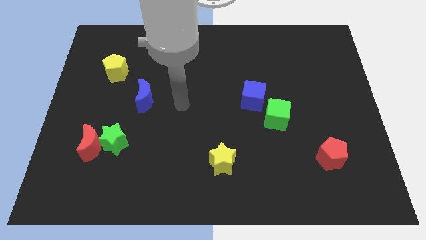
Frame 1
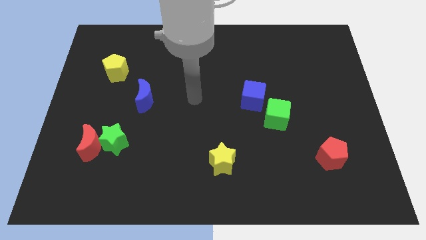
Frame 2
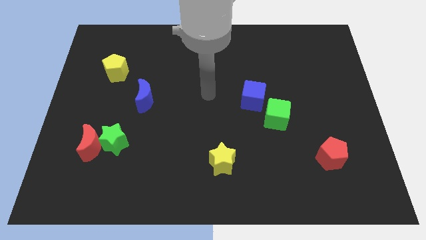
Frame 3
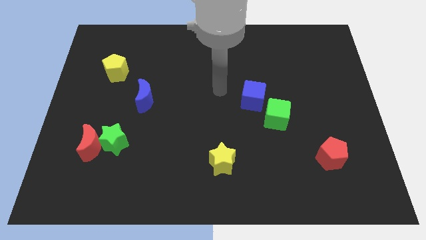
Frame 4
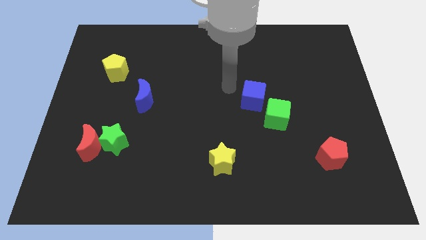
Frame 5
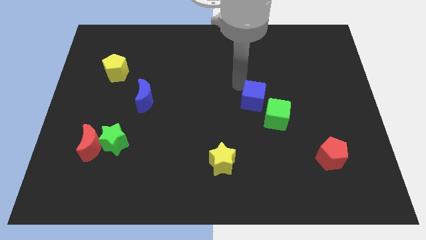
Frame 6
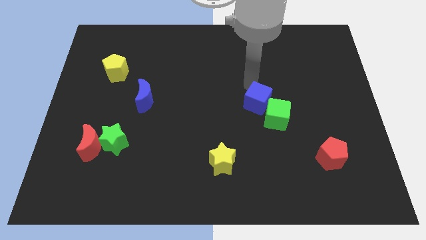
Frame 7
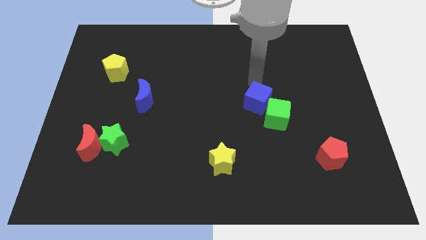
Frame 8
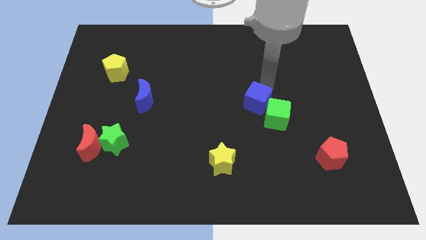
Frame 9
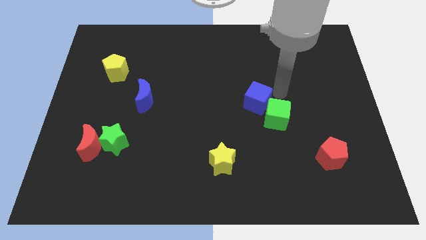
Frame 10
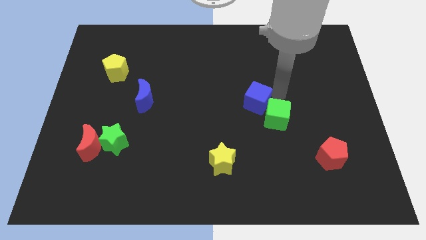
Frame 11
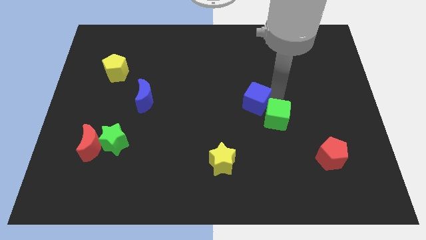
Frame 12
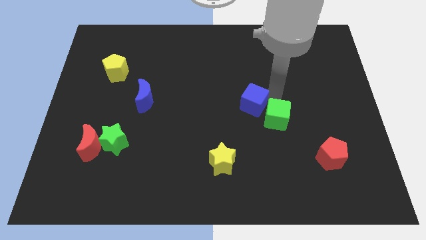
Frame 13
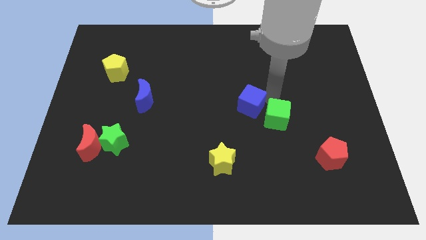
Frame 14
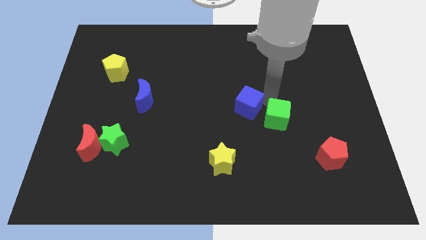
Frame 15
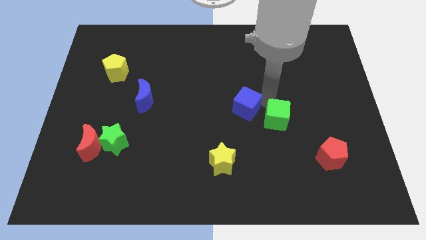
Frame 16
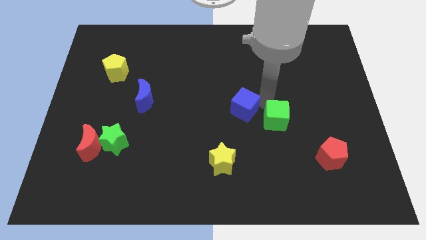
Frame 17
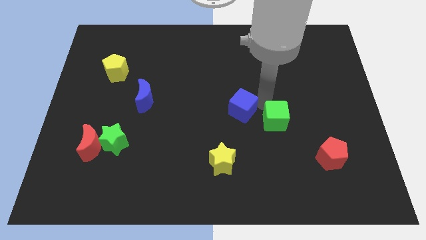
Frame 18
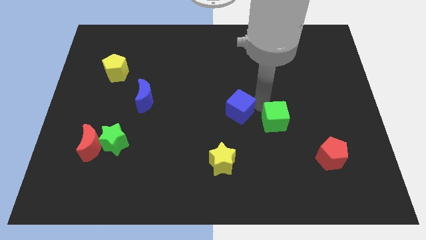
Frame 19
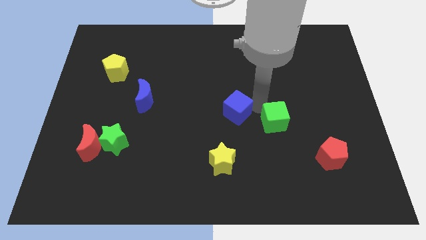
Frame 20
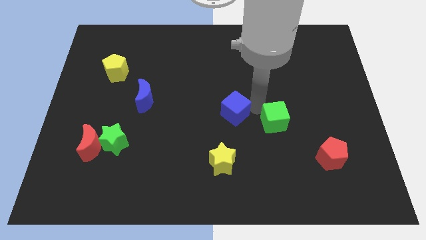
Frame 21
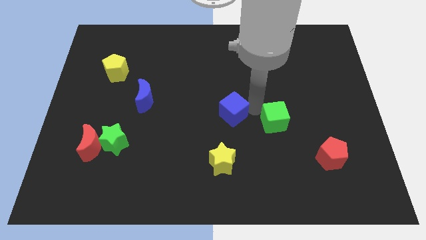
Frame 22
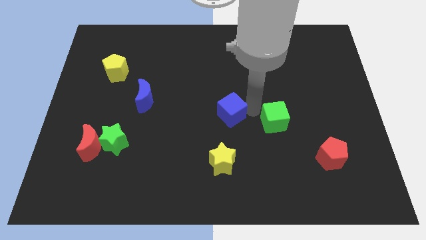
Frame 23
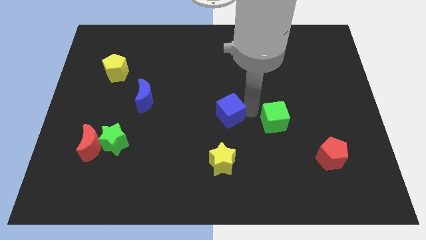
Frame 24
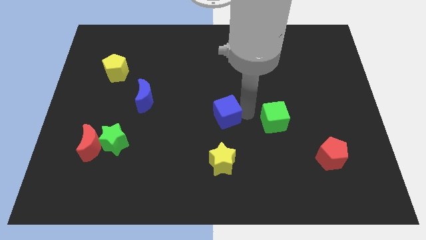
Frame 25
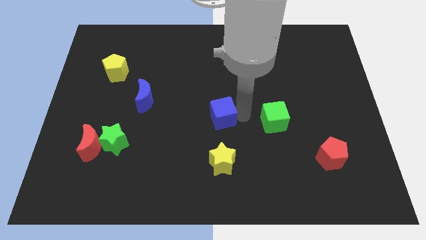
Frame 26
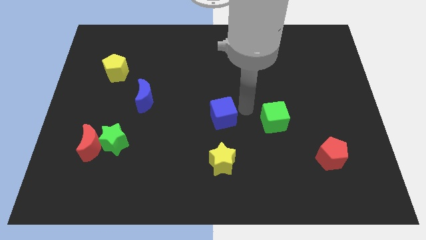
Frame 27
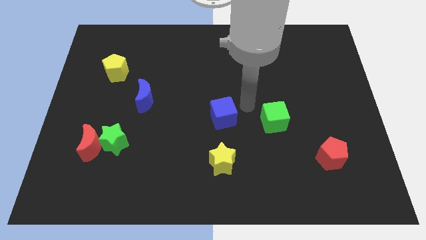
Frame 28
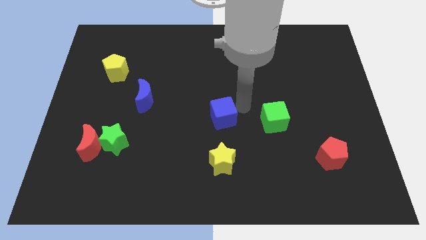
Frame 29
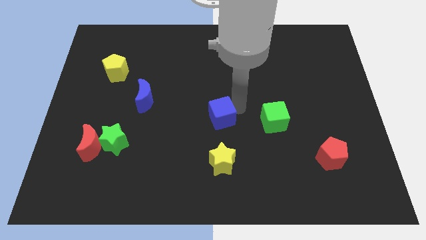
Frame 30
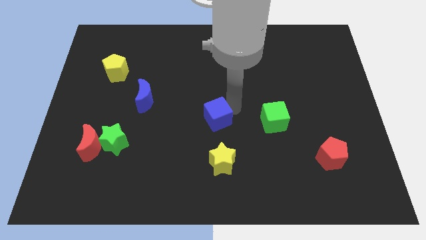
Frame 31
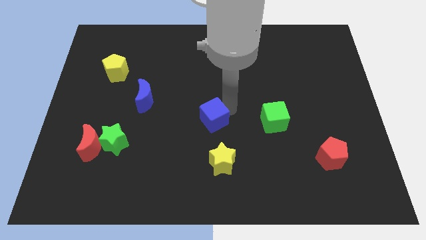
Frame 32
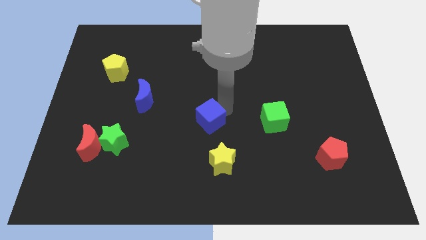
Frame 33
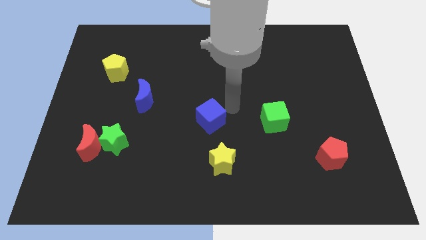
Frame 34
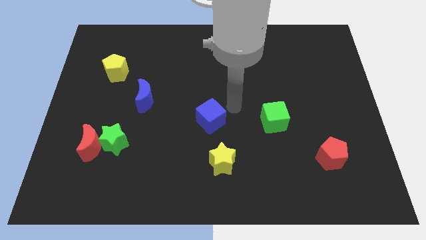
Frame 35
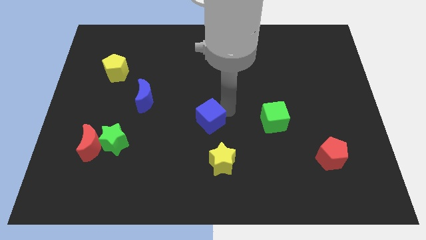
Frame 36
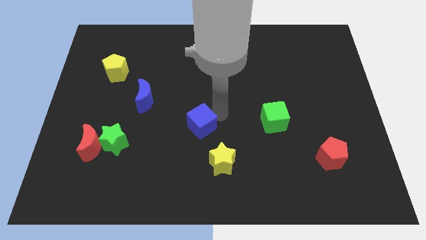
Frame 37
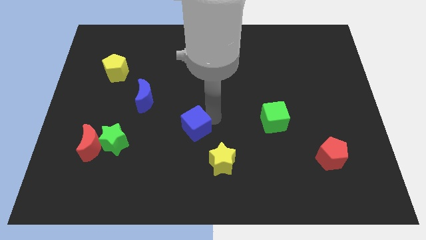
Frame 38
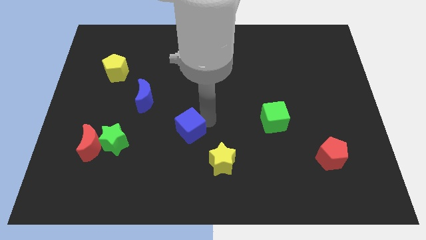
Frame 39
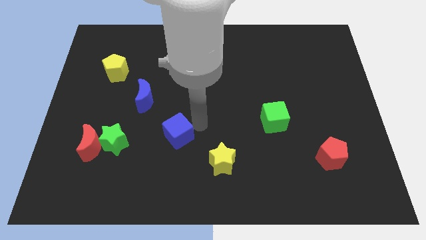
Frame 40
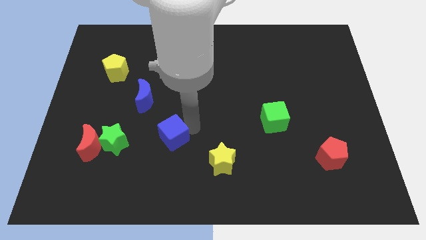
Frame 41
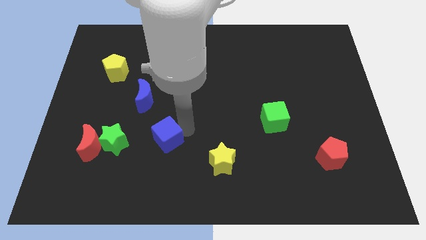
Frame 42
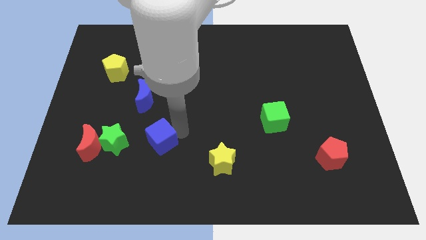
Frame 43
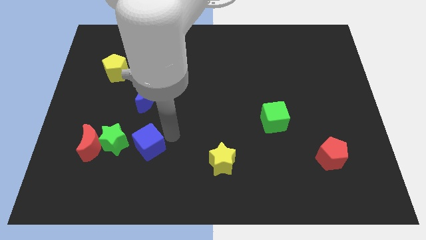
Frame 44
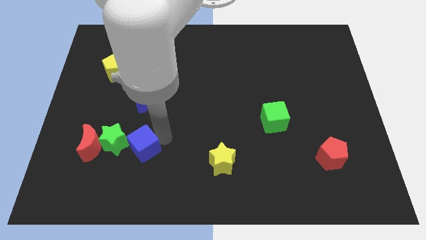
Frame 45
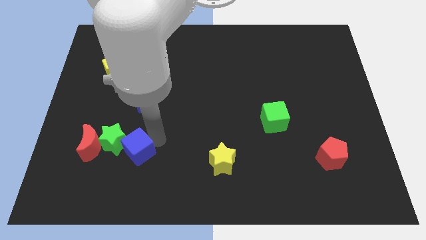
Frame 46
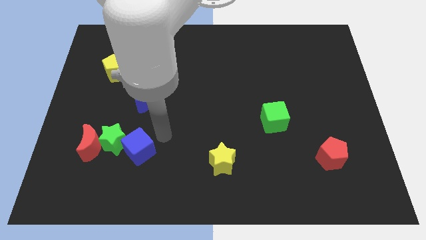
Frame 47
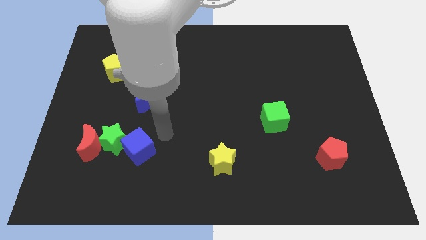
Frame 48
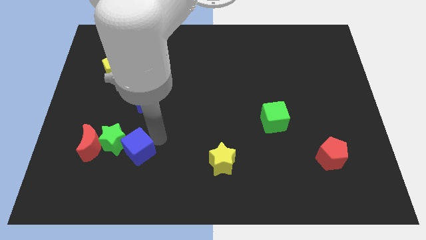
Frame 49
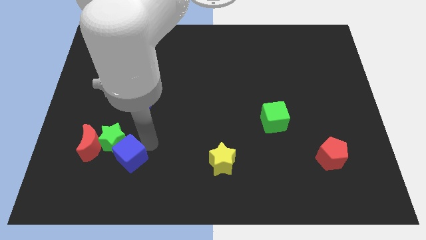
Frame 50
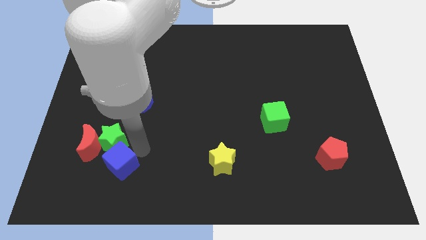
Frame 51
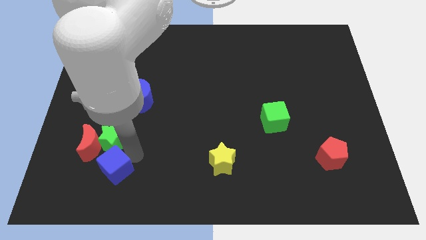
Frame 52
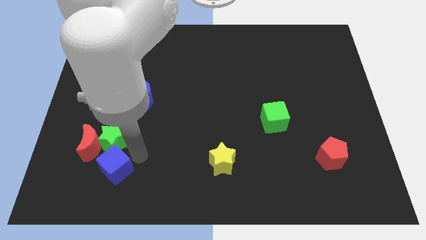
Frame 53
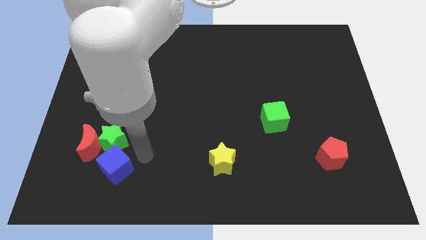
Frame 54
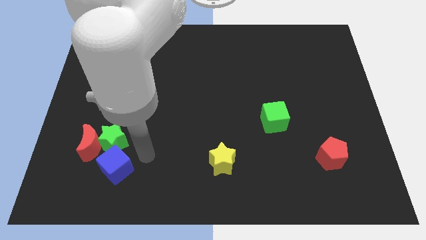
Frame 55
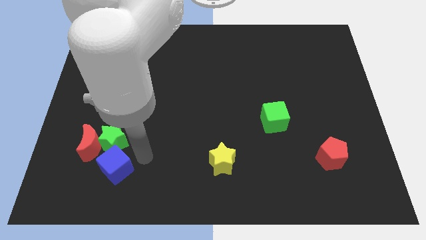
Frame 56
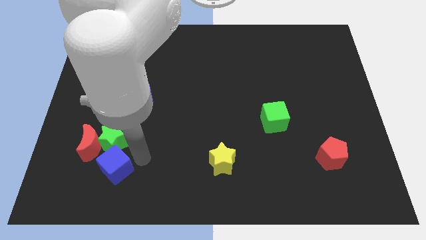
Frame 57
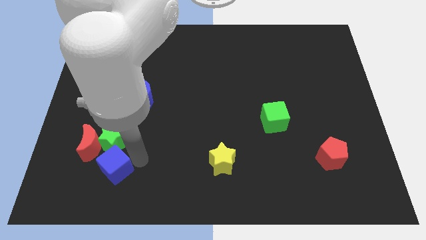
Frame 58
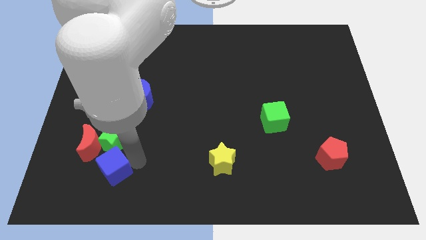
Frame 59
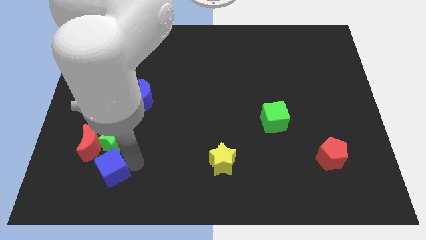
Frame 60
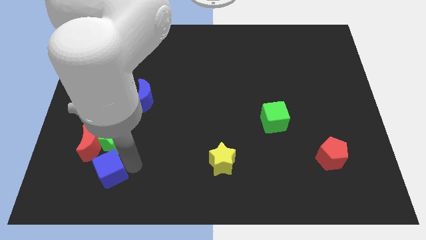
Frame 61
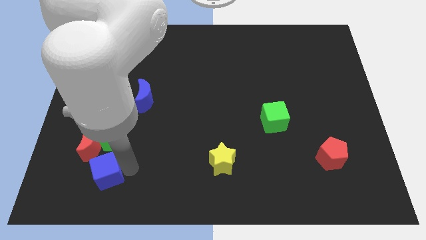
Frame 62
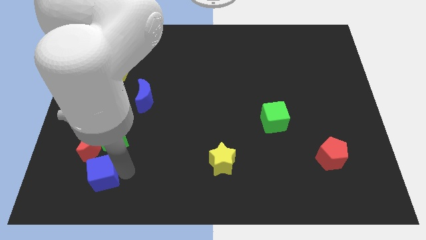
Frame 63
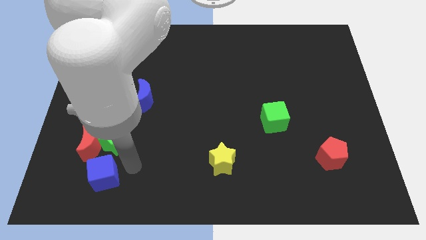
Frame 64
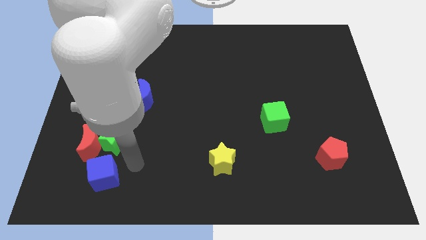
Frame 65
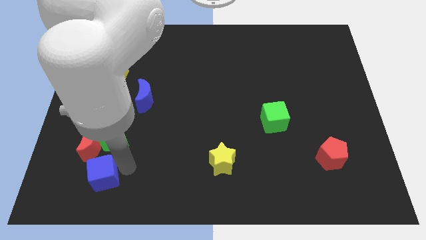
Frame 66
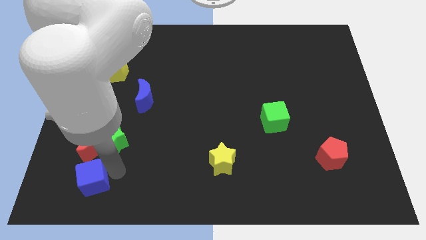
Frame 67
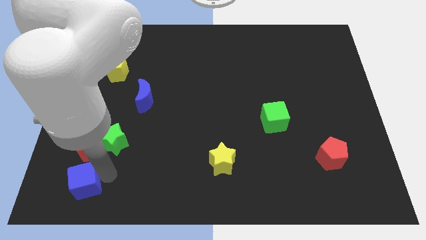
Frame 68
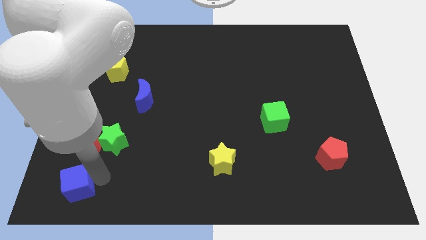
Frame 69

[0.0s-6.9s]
push the blue cube to the bottom left corner

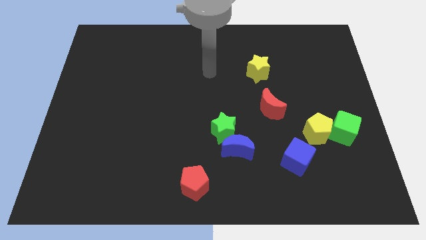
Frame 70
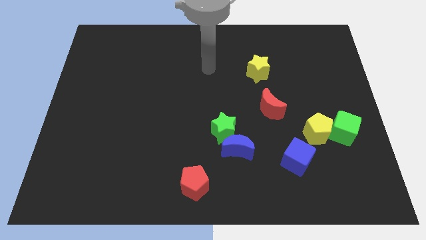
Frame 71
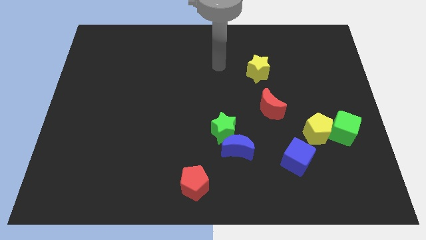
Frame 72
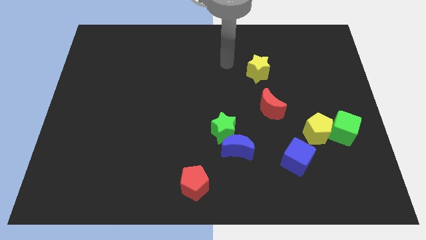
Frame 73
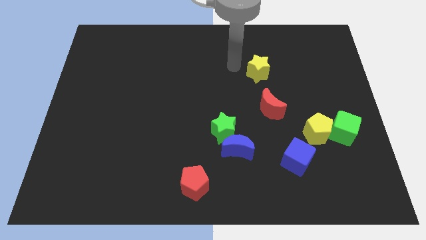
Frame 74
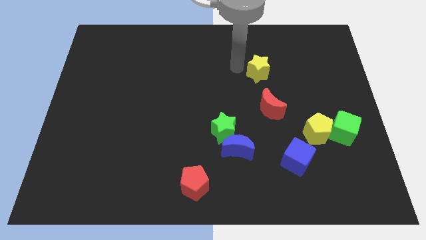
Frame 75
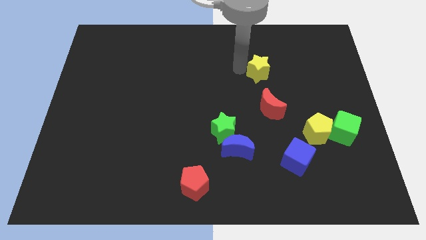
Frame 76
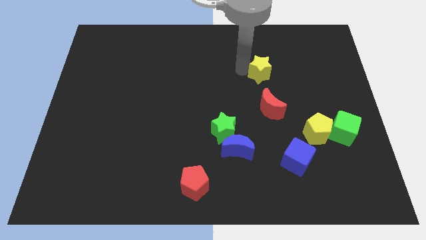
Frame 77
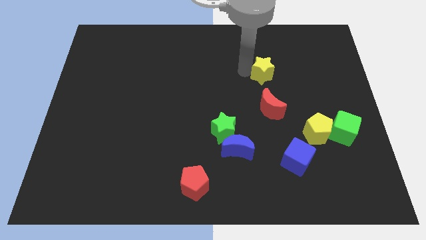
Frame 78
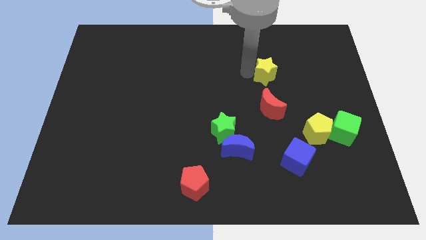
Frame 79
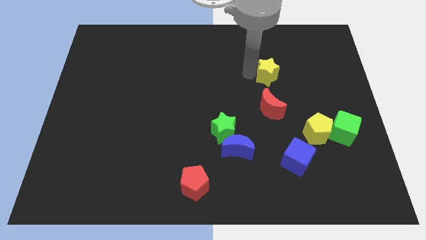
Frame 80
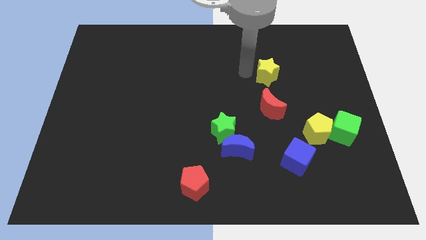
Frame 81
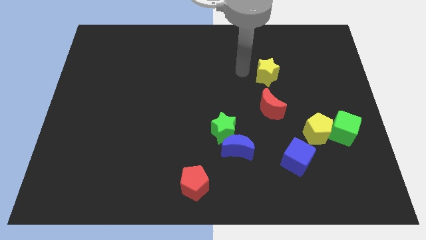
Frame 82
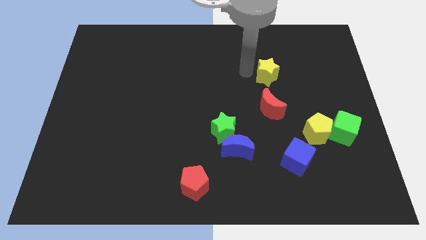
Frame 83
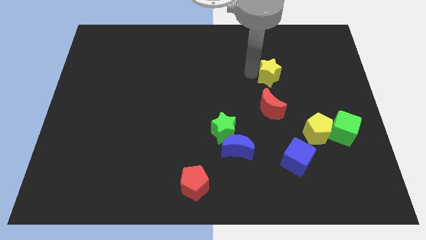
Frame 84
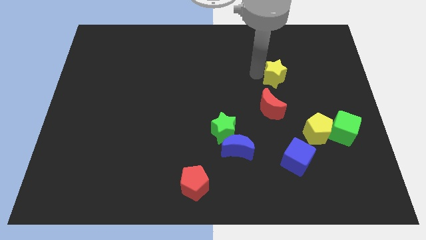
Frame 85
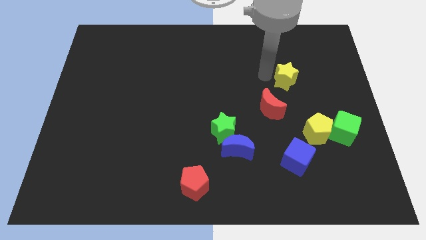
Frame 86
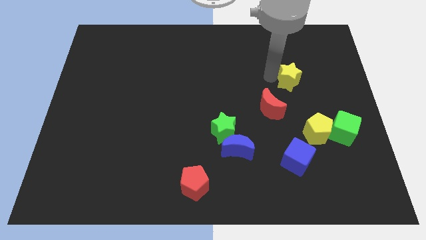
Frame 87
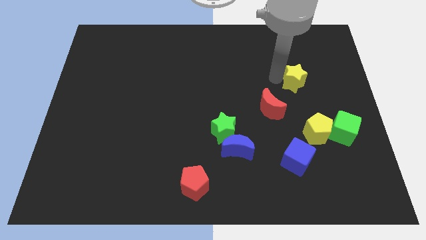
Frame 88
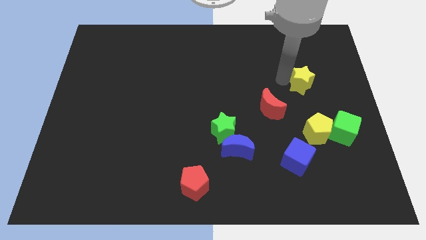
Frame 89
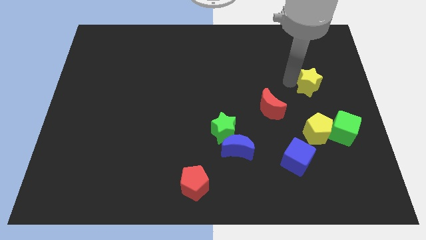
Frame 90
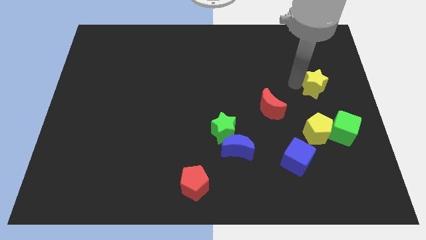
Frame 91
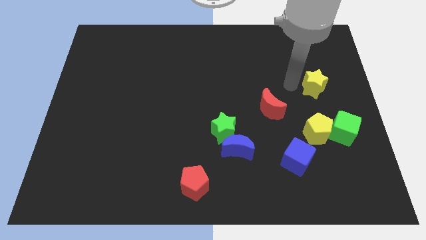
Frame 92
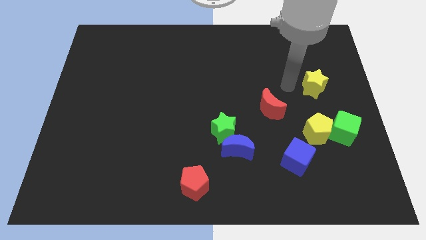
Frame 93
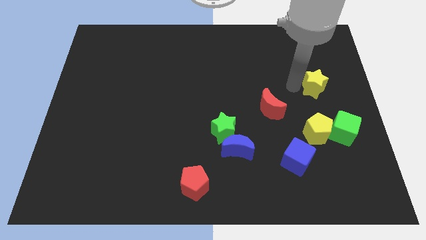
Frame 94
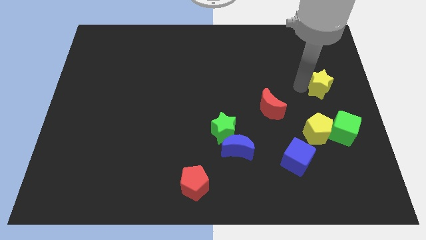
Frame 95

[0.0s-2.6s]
slide the yellow star to the right side of the board
